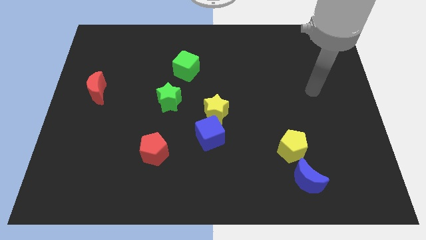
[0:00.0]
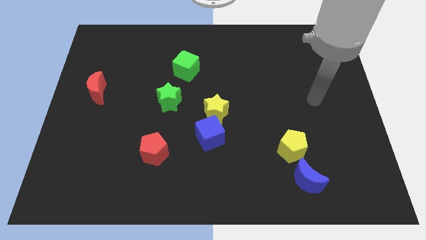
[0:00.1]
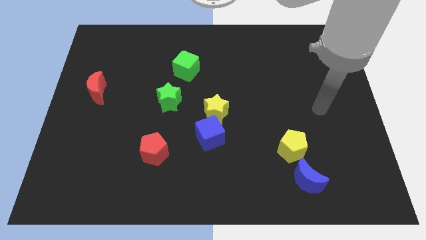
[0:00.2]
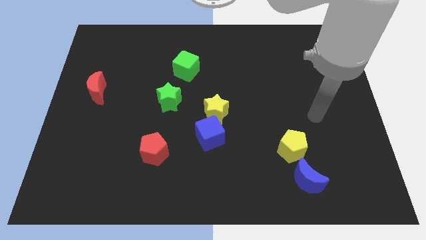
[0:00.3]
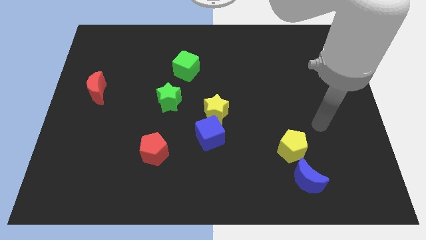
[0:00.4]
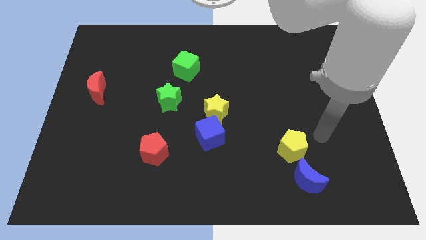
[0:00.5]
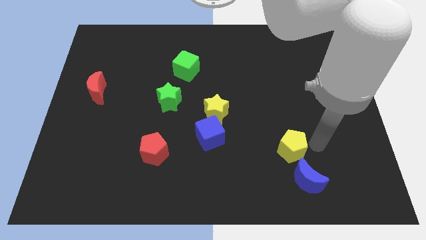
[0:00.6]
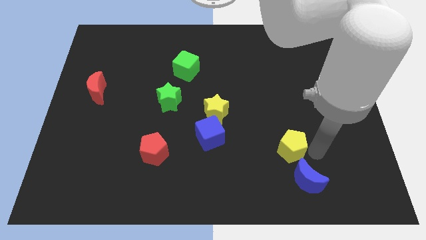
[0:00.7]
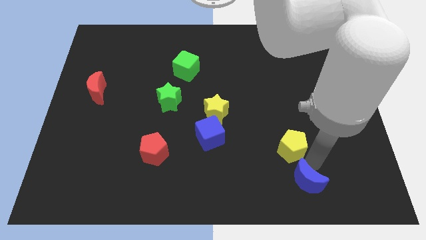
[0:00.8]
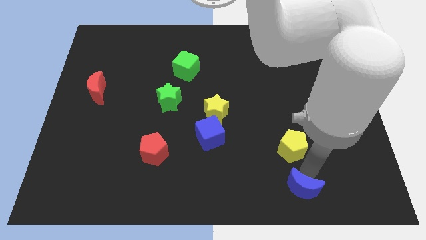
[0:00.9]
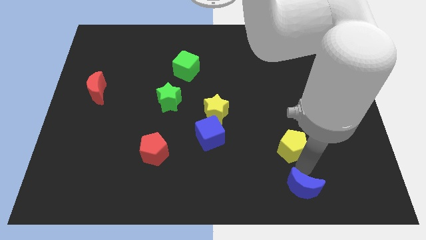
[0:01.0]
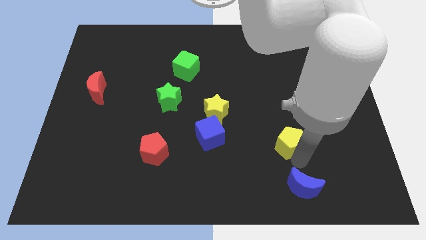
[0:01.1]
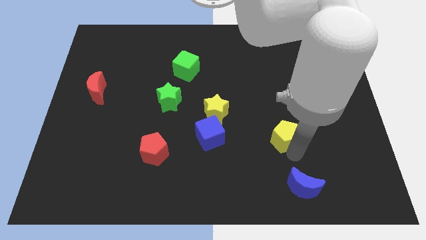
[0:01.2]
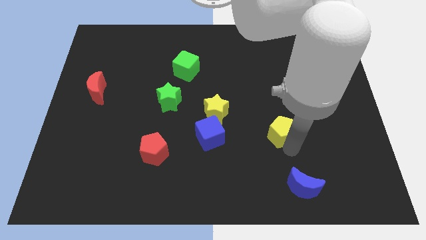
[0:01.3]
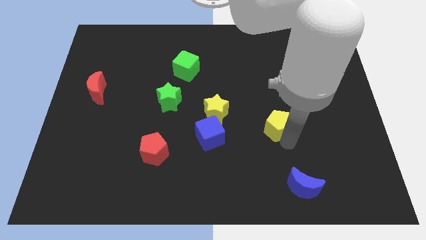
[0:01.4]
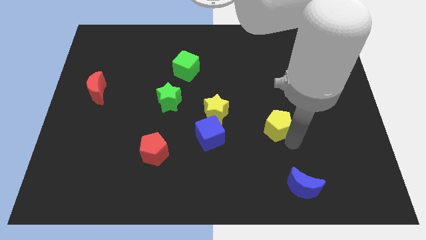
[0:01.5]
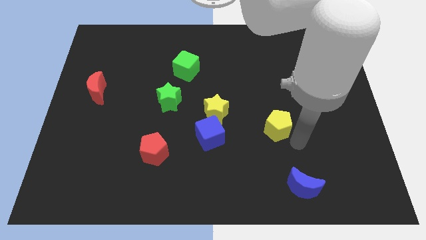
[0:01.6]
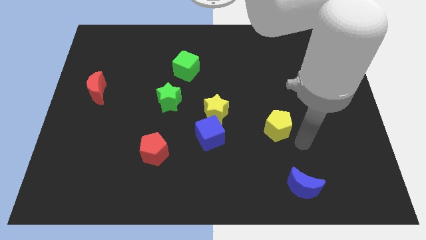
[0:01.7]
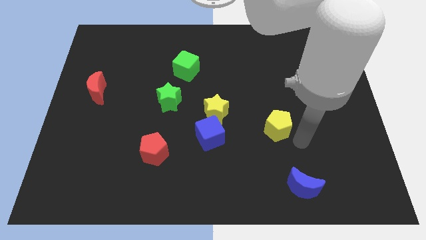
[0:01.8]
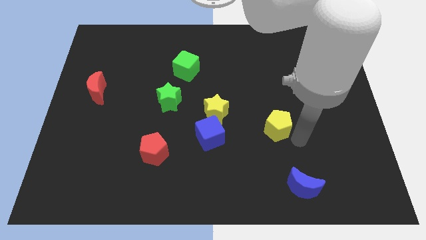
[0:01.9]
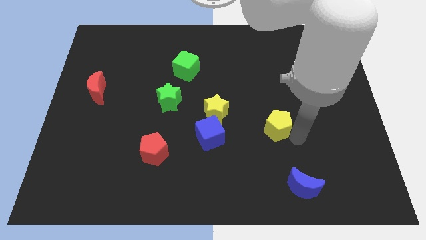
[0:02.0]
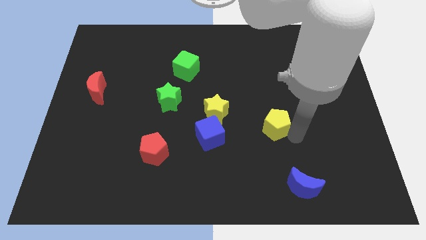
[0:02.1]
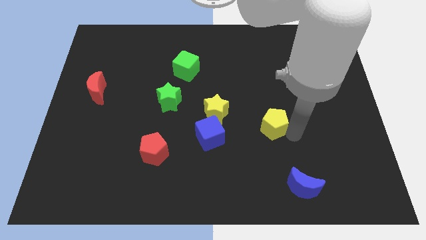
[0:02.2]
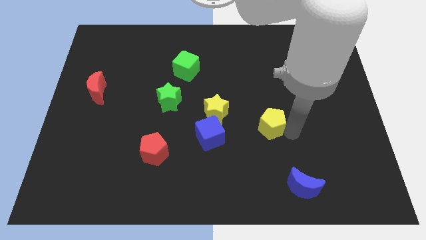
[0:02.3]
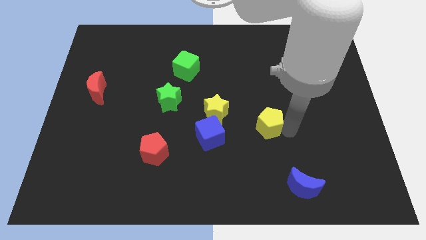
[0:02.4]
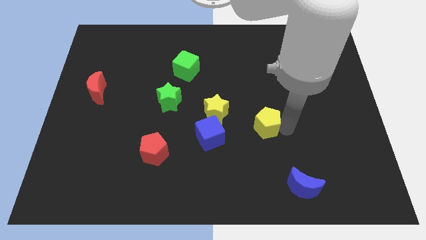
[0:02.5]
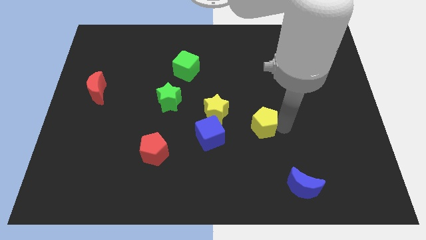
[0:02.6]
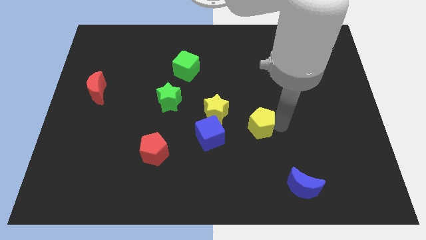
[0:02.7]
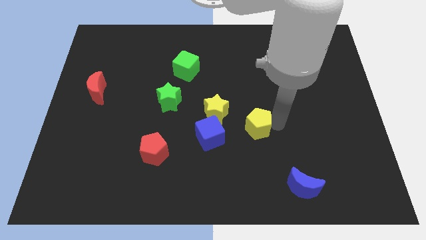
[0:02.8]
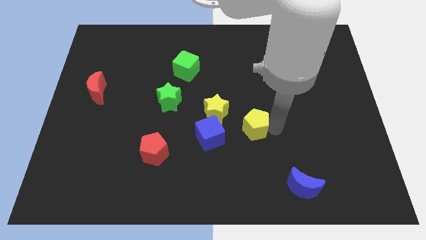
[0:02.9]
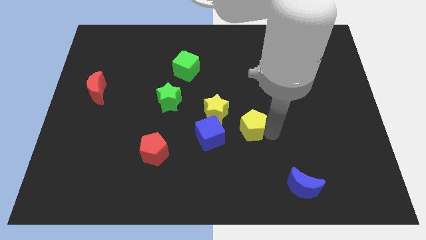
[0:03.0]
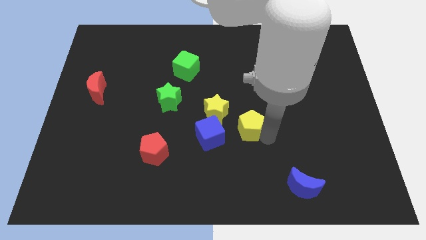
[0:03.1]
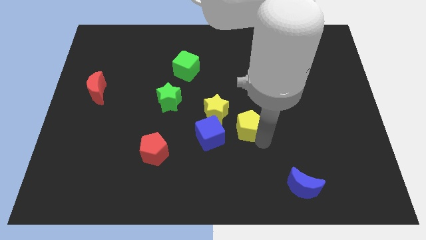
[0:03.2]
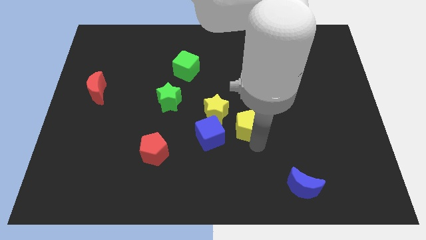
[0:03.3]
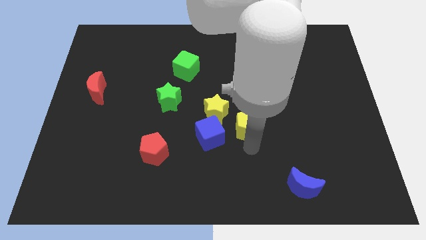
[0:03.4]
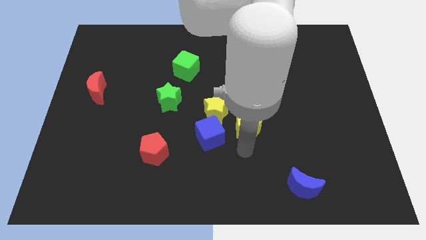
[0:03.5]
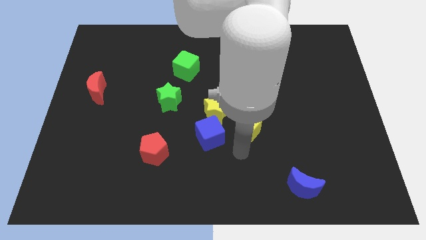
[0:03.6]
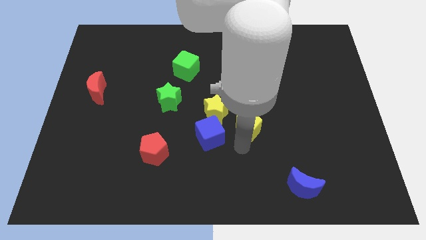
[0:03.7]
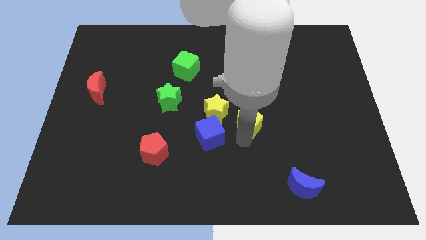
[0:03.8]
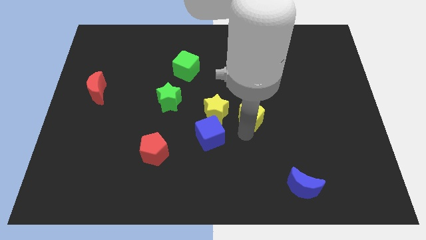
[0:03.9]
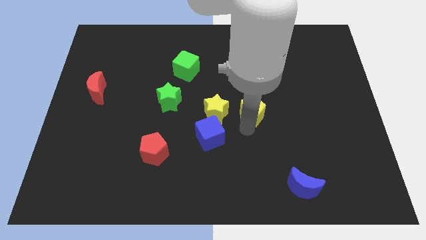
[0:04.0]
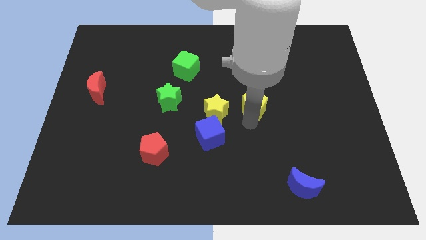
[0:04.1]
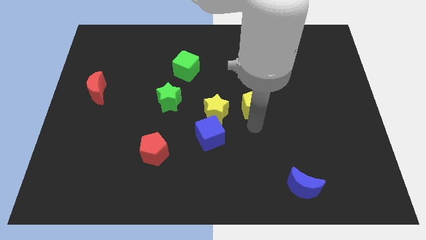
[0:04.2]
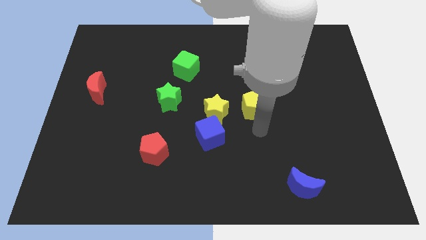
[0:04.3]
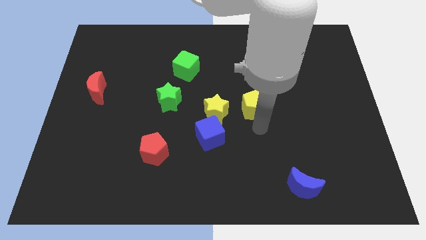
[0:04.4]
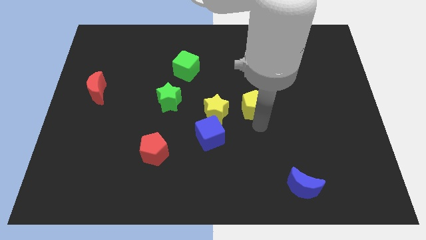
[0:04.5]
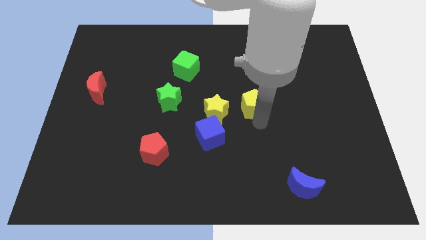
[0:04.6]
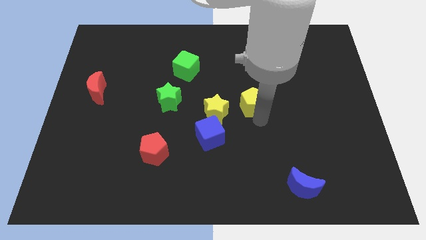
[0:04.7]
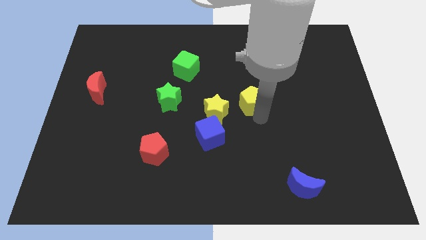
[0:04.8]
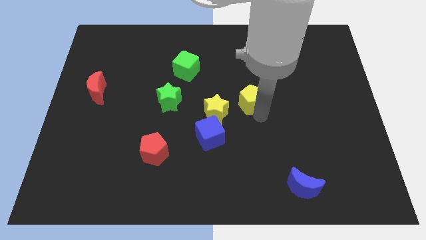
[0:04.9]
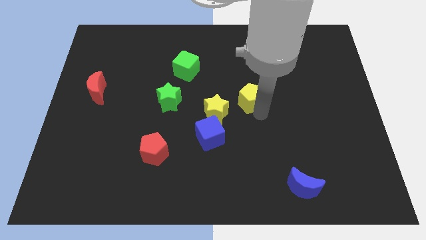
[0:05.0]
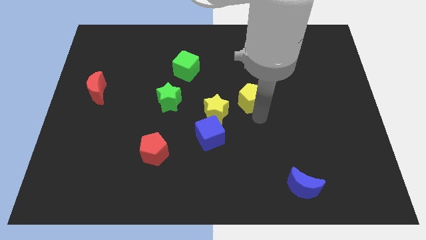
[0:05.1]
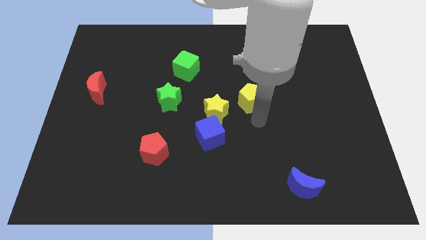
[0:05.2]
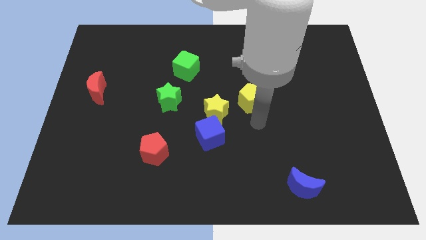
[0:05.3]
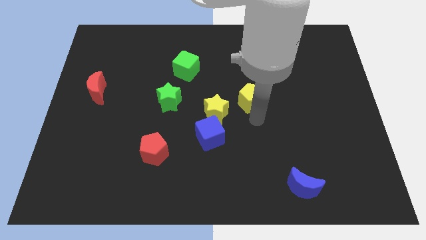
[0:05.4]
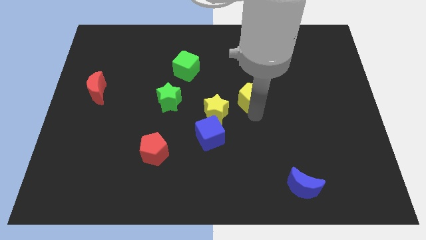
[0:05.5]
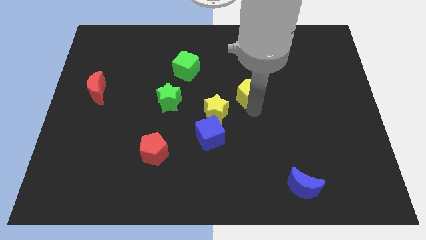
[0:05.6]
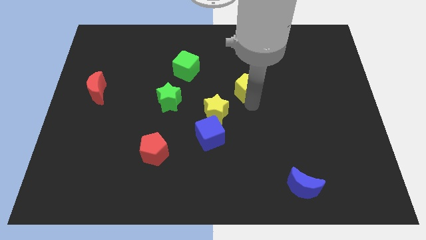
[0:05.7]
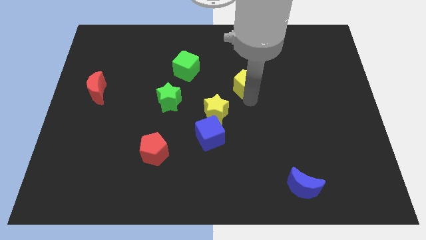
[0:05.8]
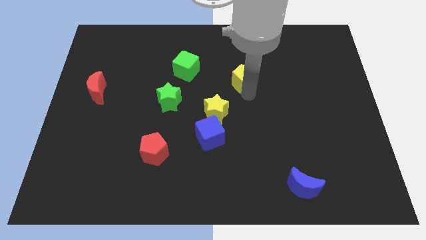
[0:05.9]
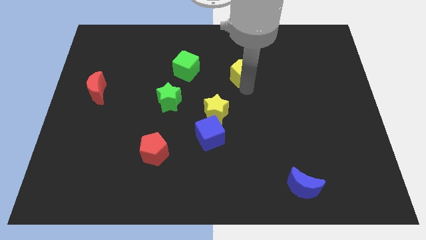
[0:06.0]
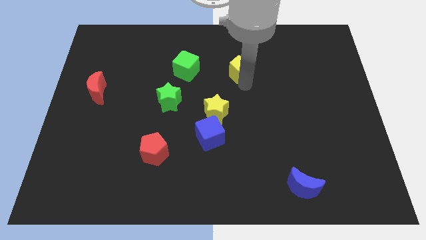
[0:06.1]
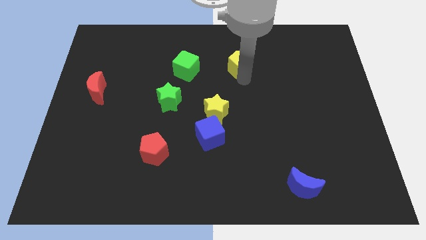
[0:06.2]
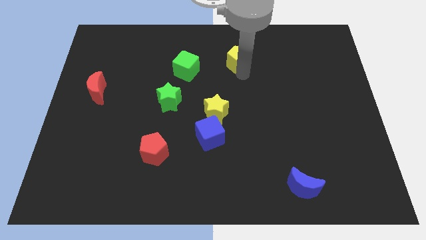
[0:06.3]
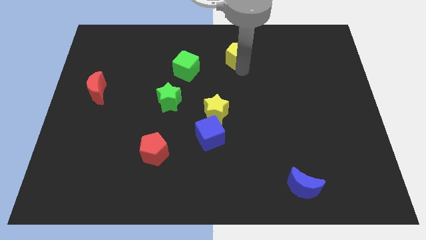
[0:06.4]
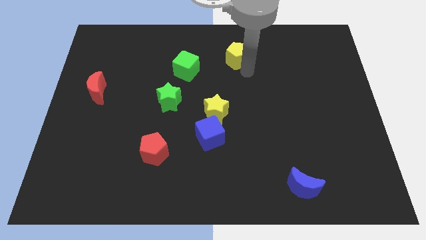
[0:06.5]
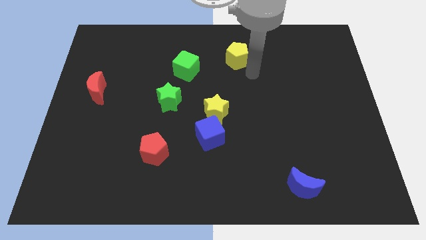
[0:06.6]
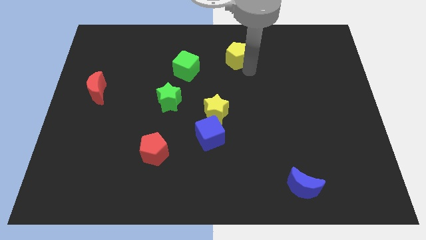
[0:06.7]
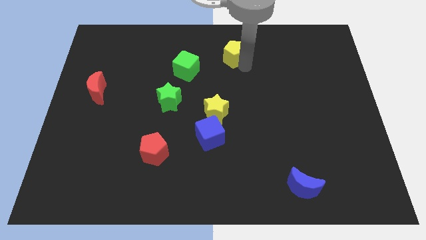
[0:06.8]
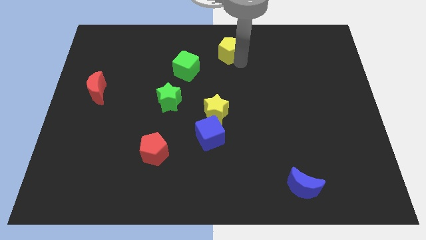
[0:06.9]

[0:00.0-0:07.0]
put the yellow pentagon to the towards your base
